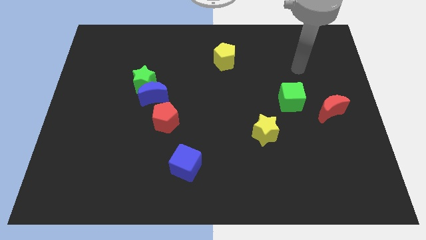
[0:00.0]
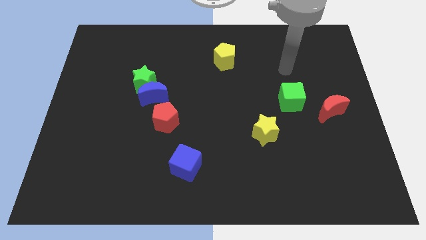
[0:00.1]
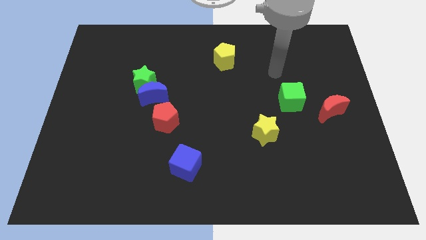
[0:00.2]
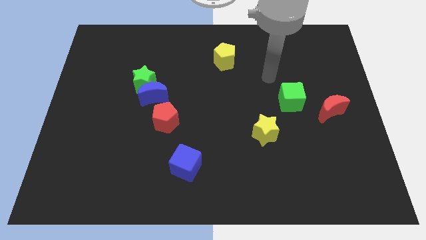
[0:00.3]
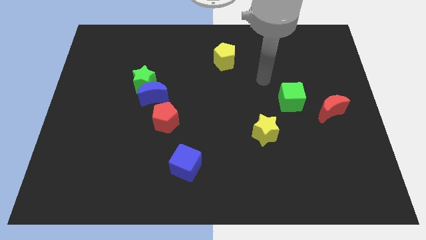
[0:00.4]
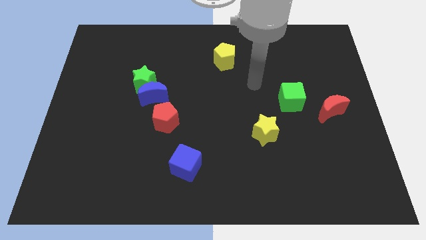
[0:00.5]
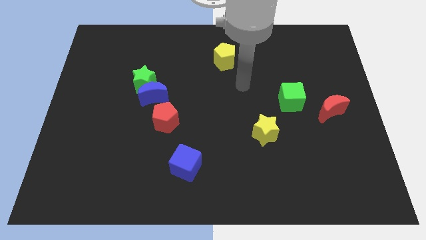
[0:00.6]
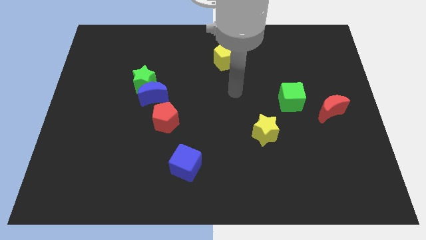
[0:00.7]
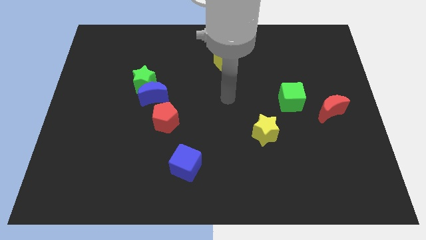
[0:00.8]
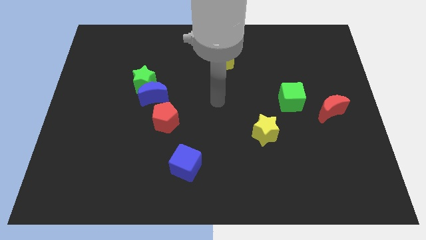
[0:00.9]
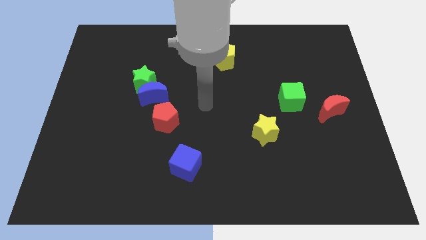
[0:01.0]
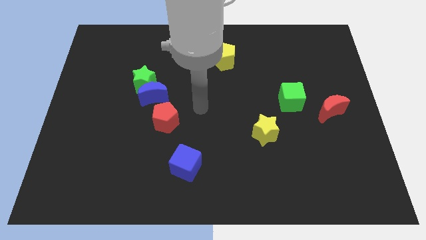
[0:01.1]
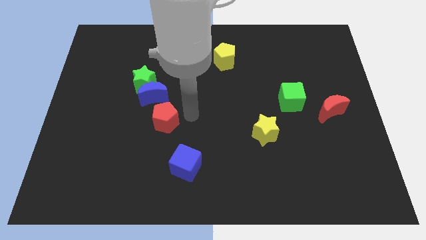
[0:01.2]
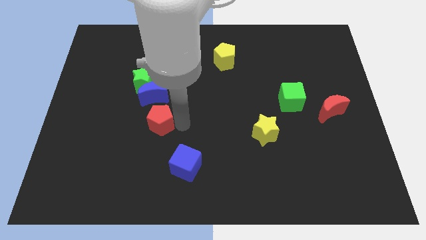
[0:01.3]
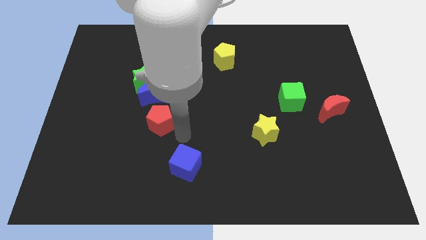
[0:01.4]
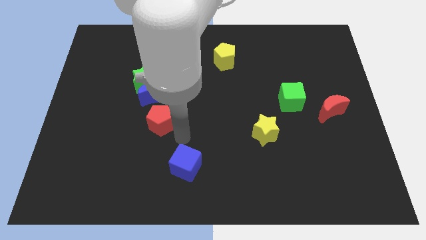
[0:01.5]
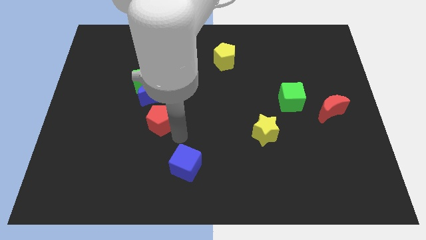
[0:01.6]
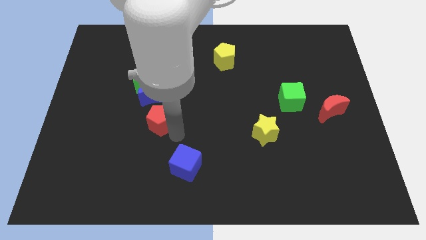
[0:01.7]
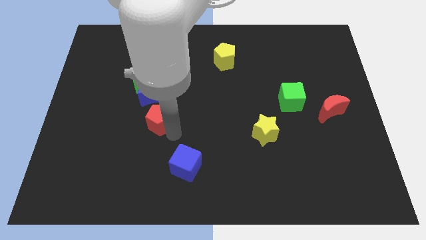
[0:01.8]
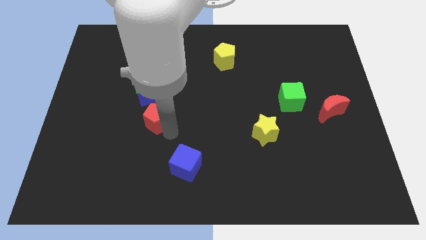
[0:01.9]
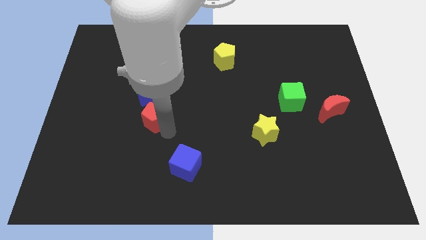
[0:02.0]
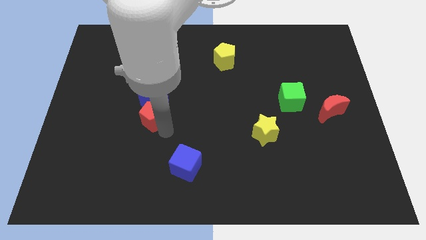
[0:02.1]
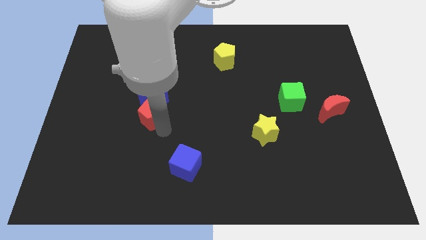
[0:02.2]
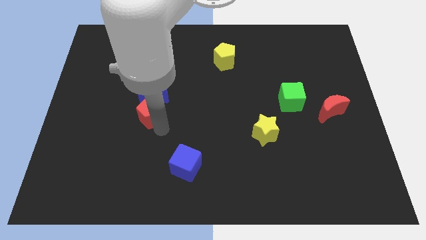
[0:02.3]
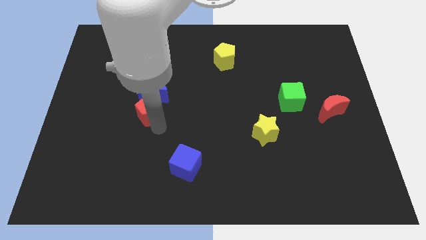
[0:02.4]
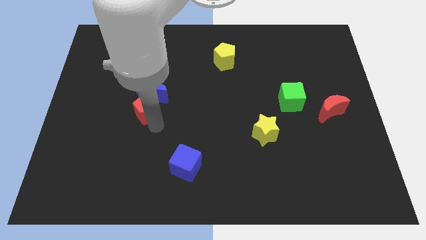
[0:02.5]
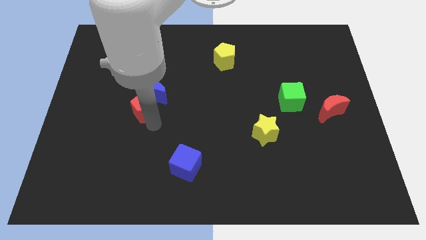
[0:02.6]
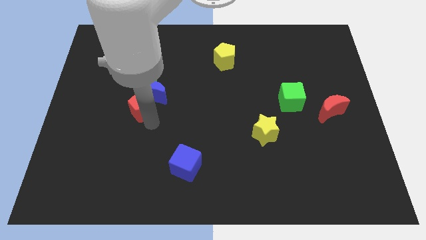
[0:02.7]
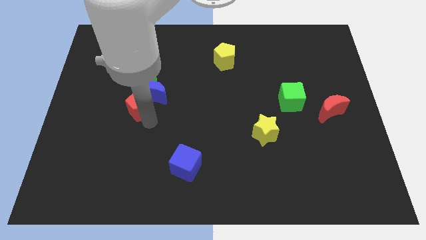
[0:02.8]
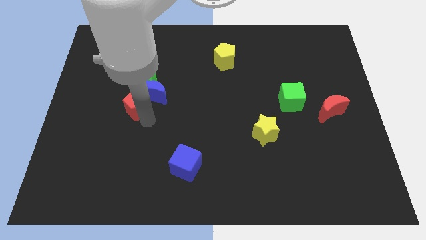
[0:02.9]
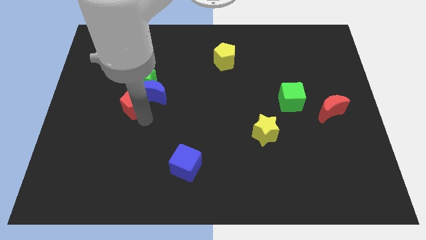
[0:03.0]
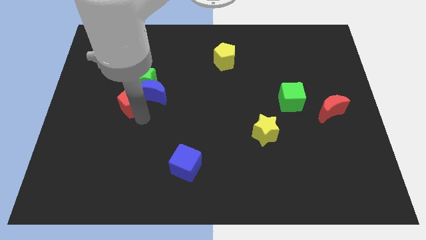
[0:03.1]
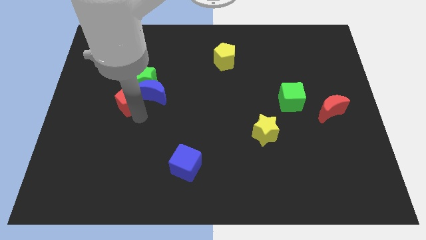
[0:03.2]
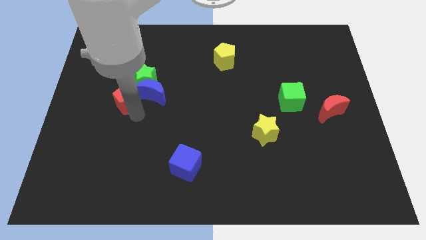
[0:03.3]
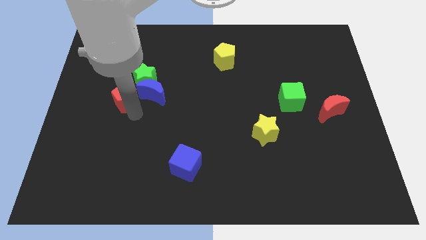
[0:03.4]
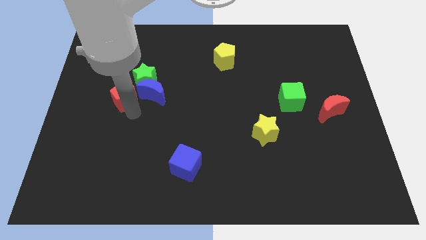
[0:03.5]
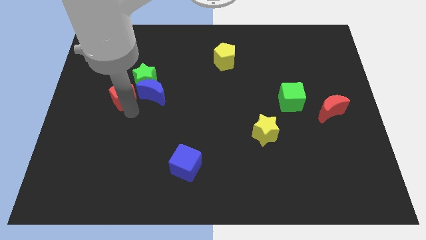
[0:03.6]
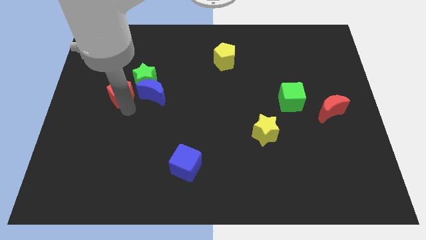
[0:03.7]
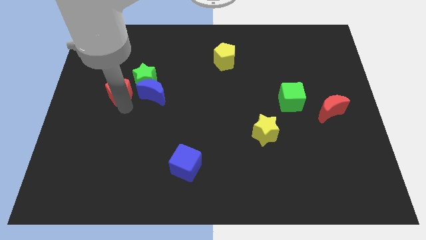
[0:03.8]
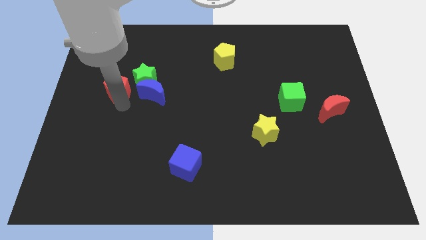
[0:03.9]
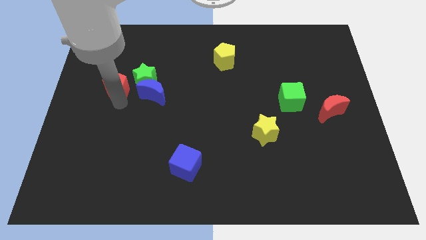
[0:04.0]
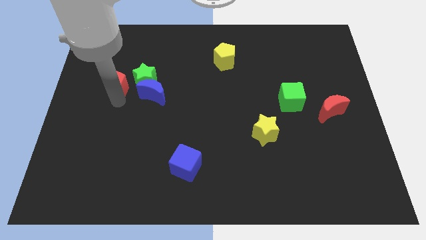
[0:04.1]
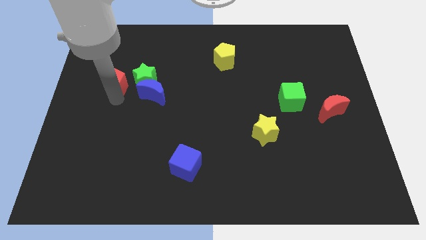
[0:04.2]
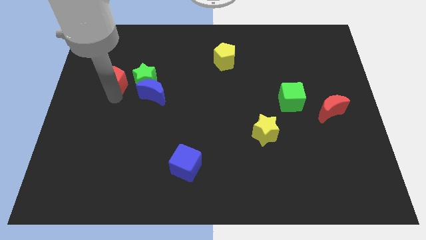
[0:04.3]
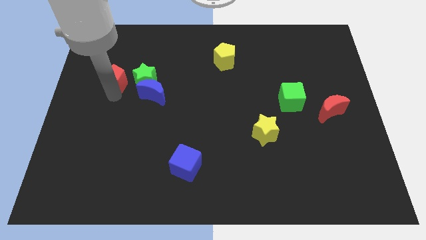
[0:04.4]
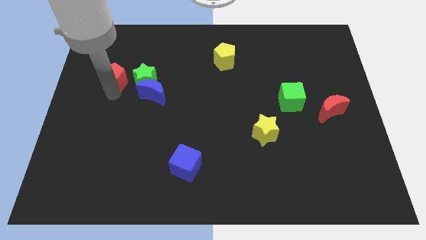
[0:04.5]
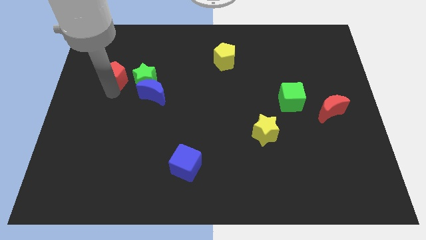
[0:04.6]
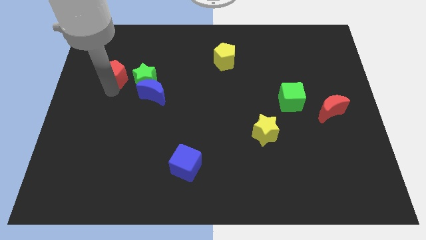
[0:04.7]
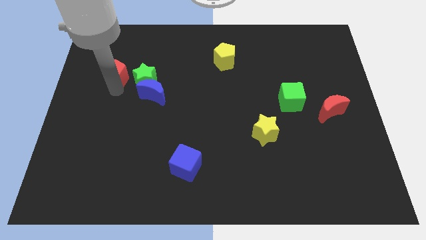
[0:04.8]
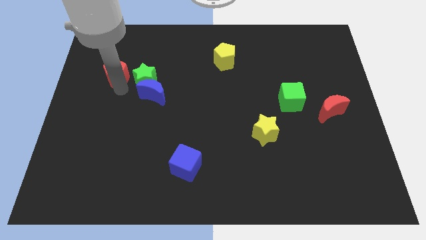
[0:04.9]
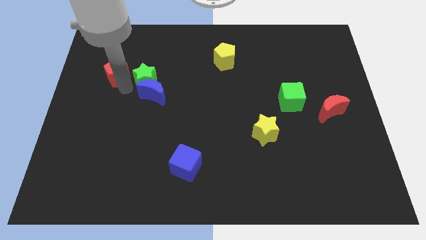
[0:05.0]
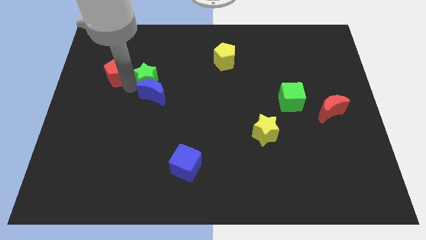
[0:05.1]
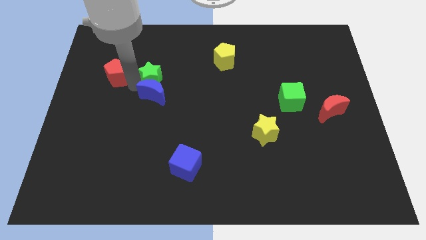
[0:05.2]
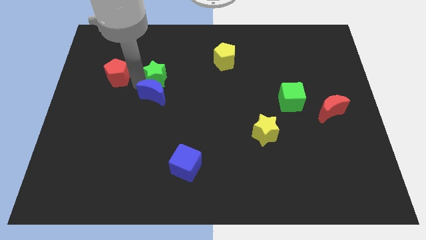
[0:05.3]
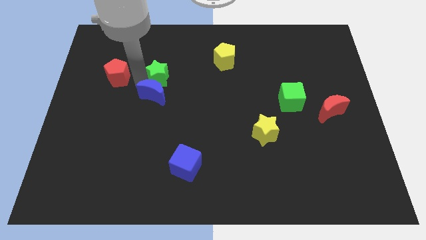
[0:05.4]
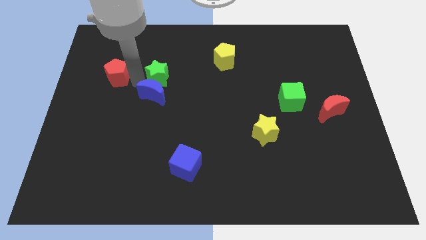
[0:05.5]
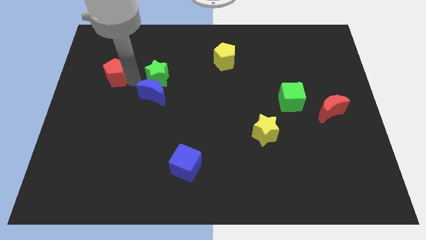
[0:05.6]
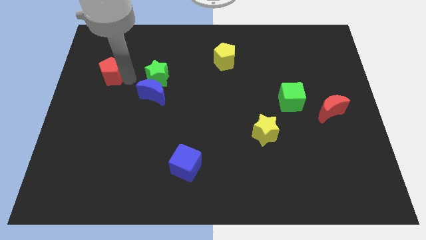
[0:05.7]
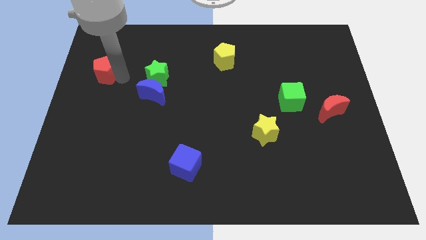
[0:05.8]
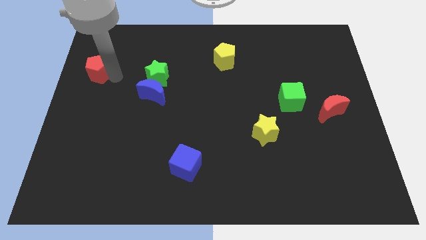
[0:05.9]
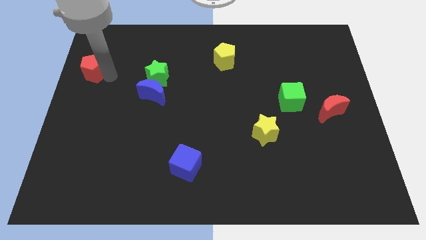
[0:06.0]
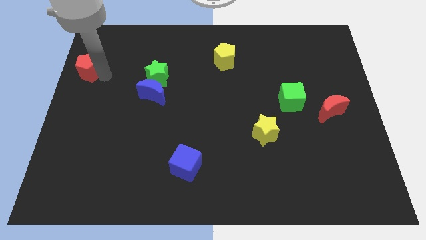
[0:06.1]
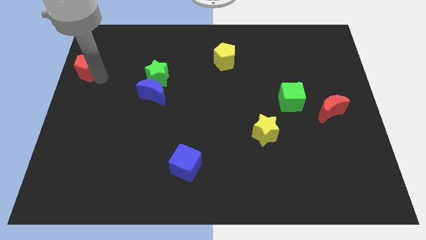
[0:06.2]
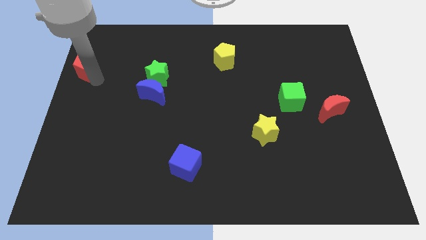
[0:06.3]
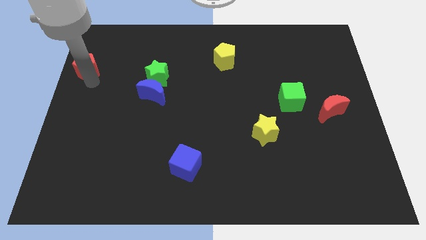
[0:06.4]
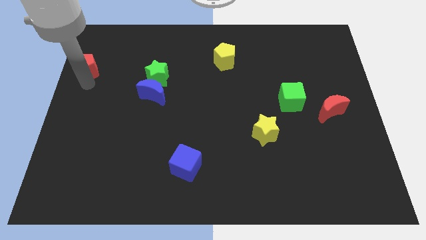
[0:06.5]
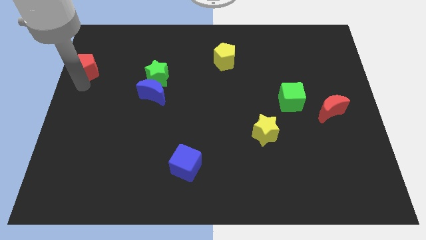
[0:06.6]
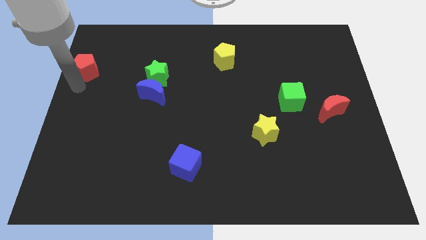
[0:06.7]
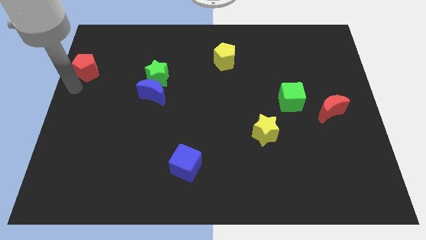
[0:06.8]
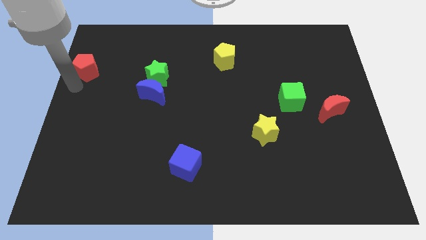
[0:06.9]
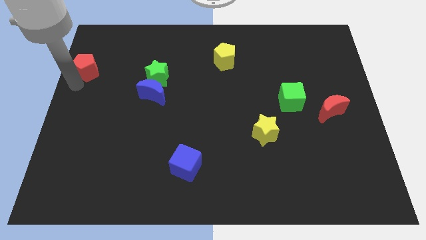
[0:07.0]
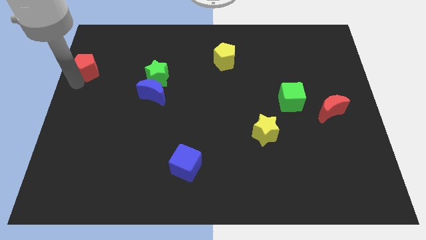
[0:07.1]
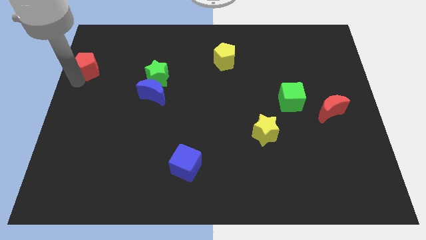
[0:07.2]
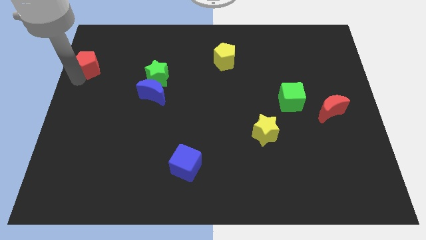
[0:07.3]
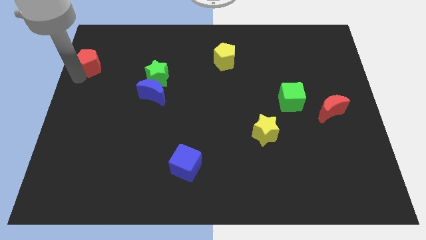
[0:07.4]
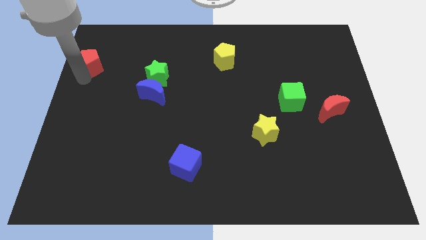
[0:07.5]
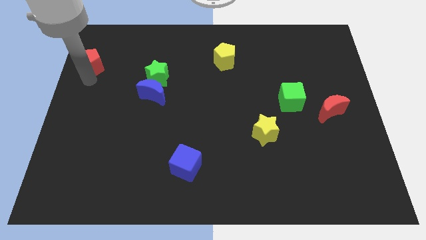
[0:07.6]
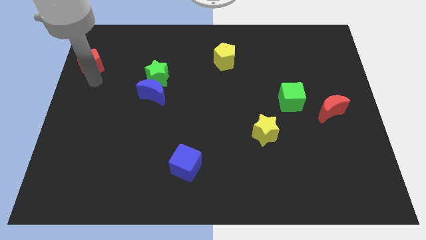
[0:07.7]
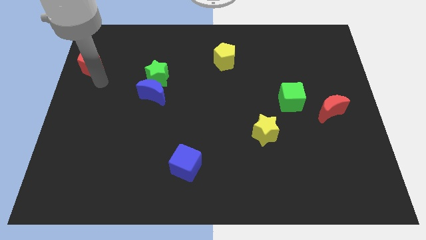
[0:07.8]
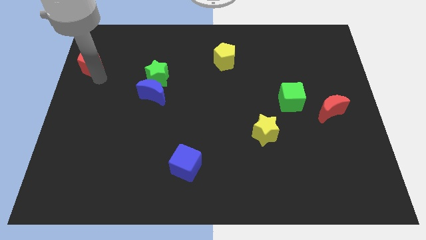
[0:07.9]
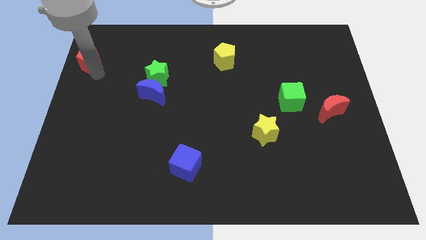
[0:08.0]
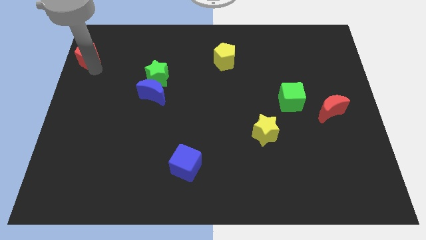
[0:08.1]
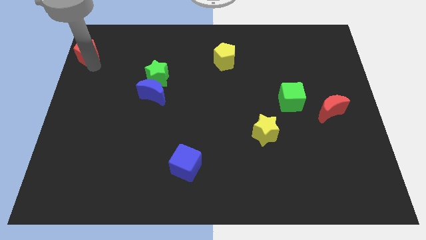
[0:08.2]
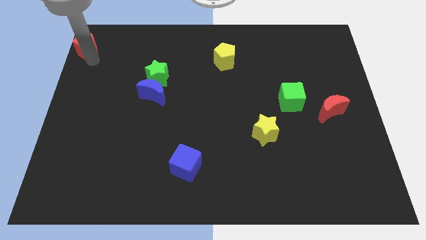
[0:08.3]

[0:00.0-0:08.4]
move the red pentagon to the top left
